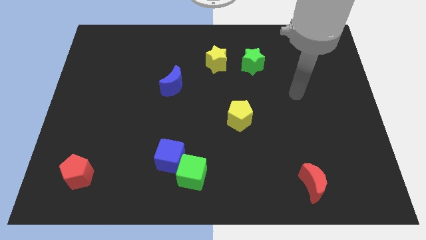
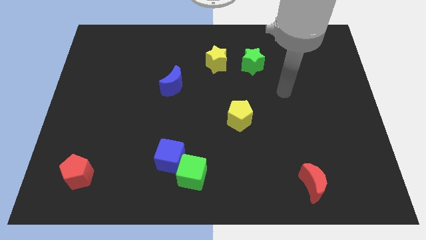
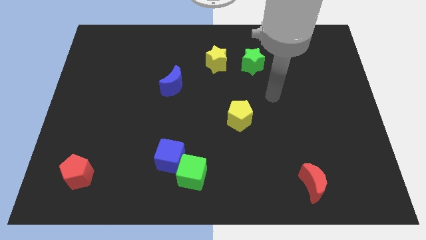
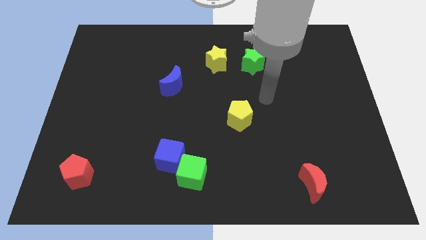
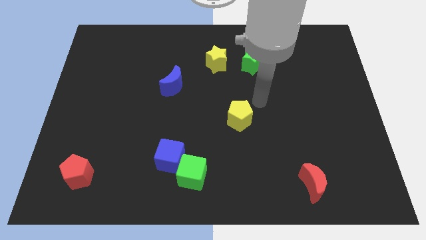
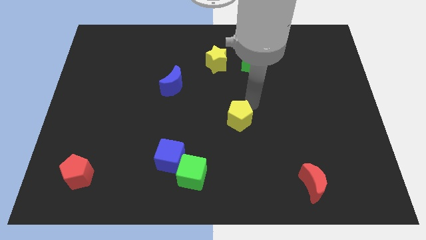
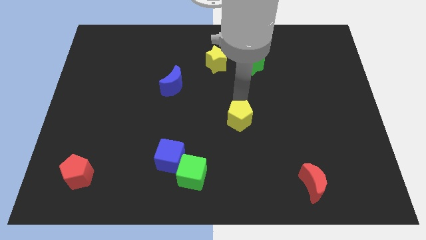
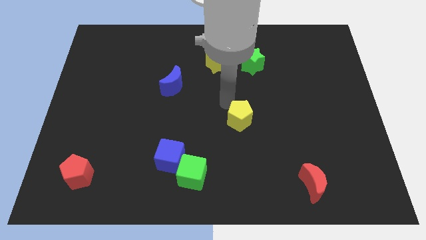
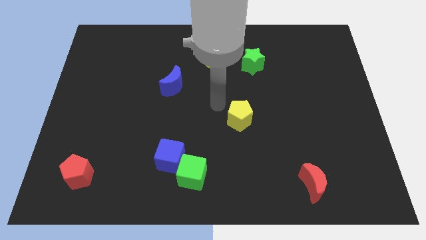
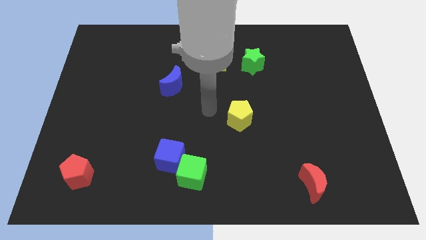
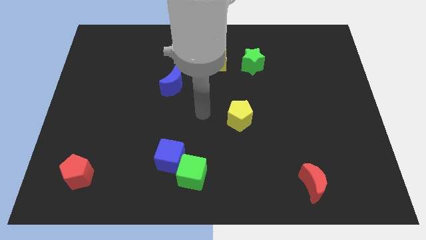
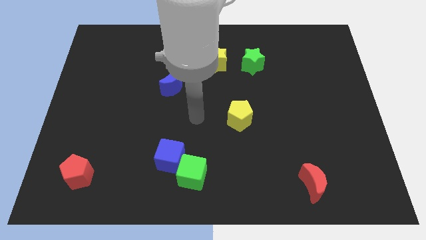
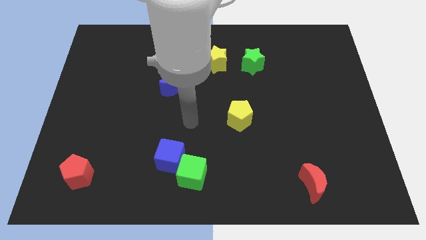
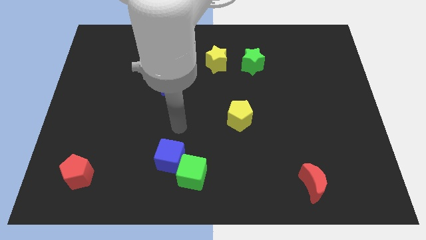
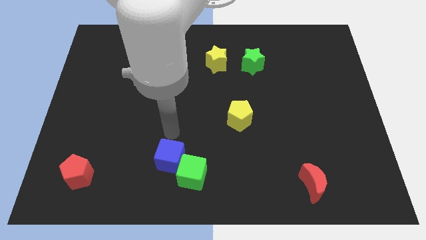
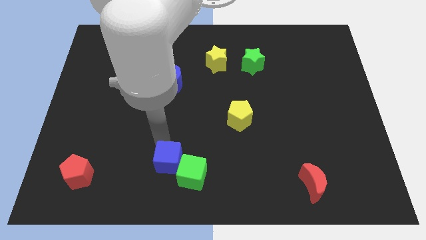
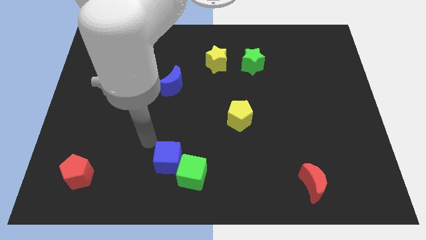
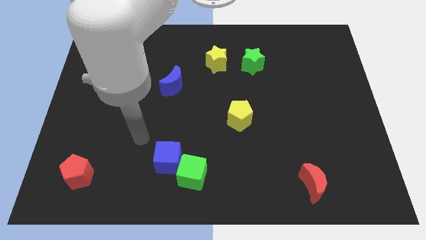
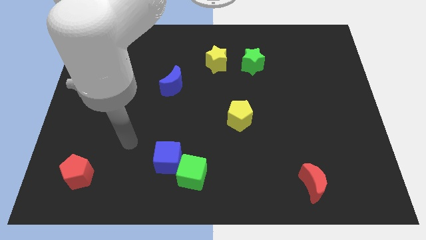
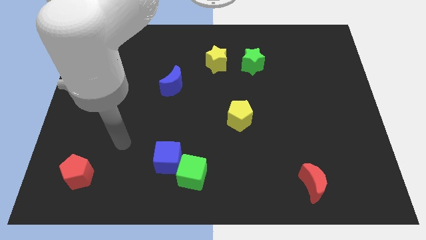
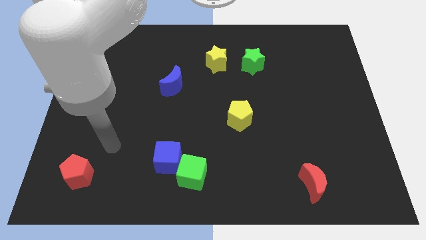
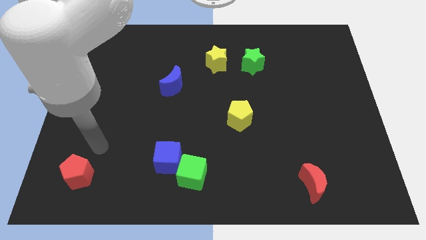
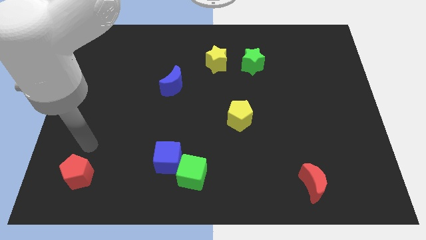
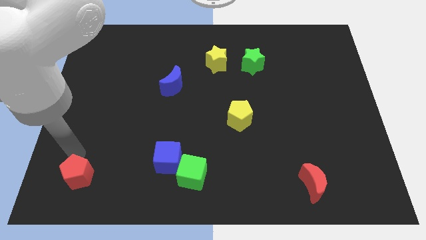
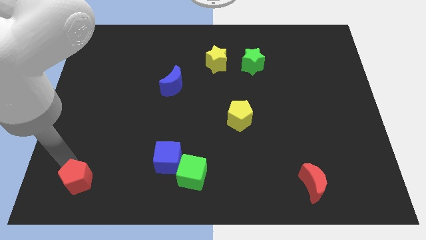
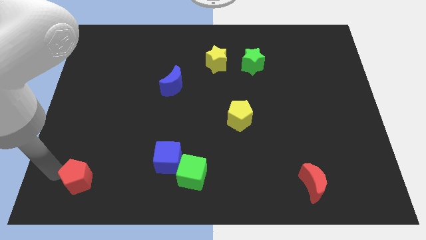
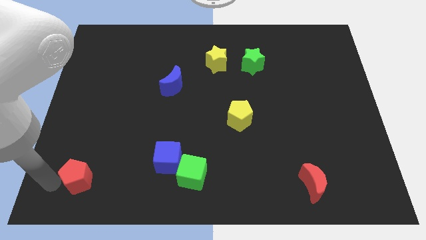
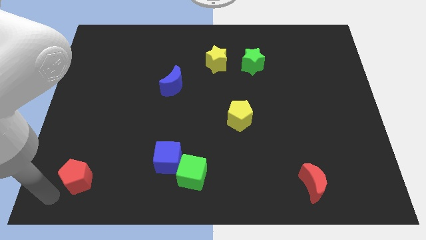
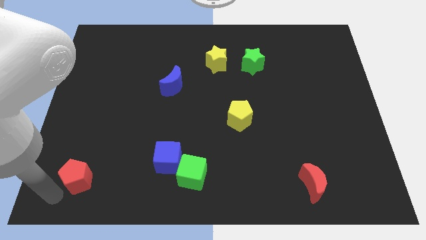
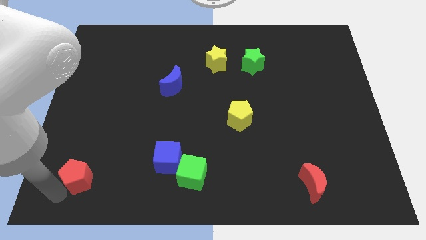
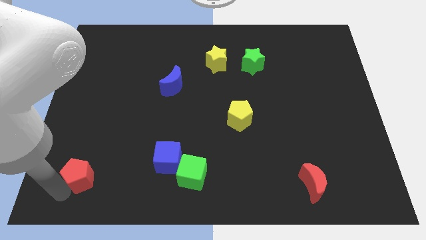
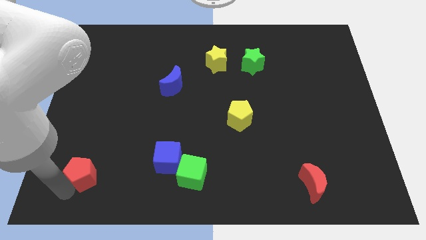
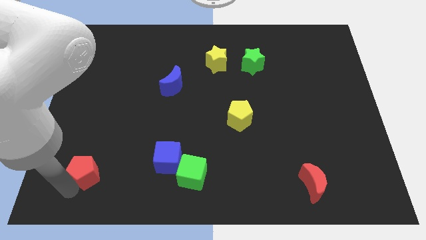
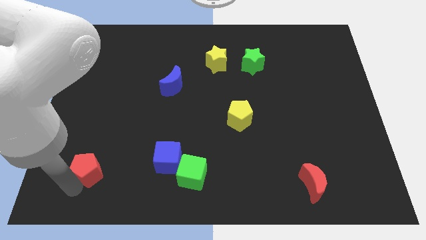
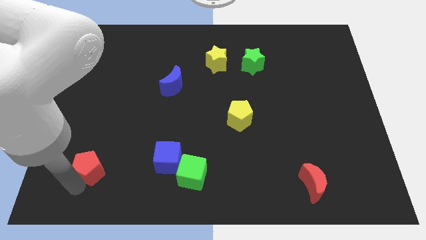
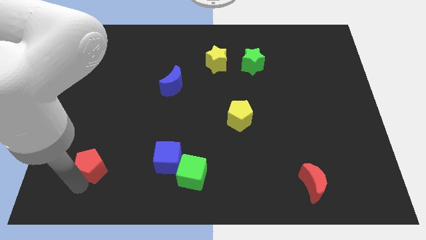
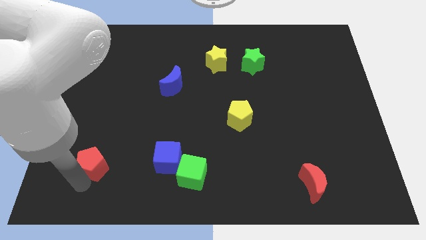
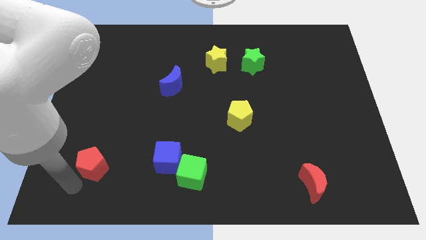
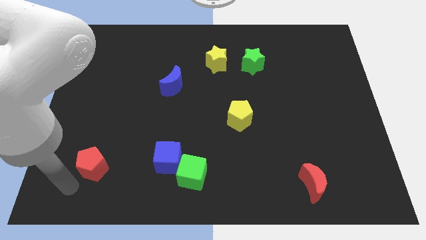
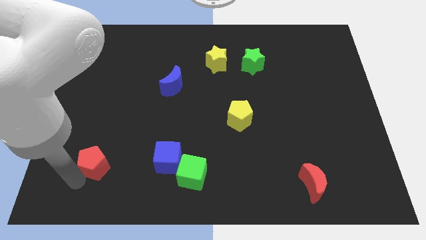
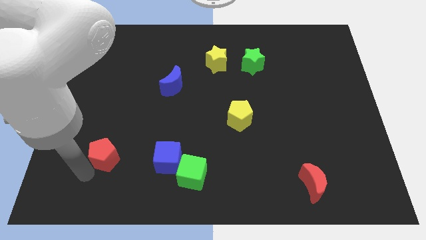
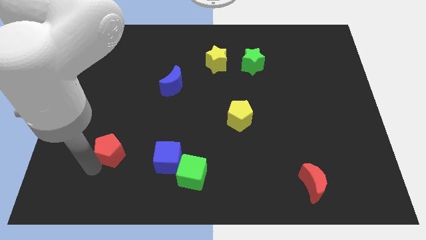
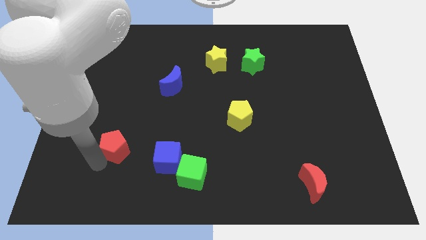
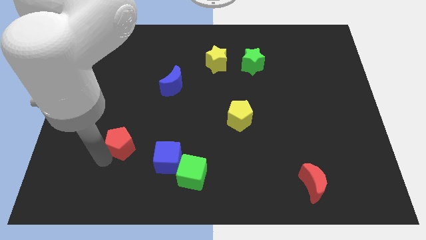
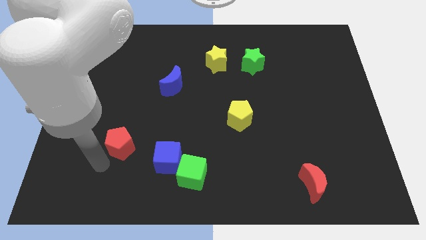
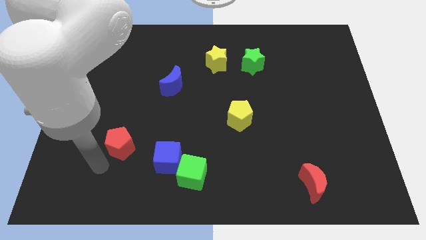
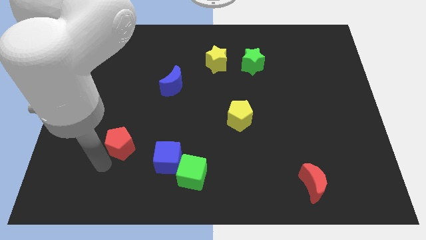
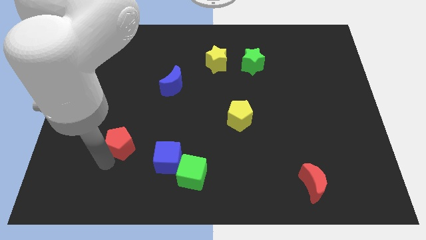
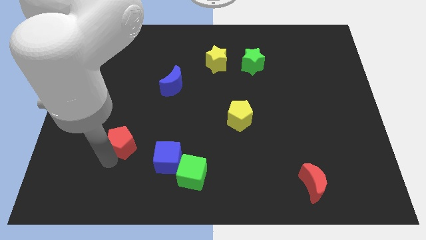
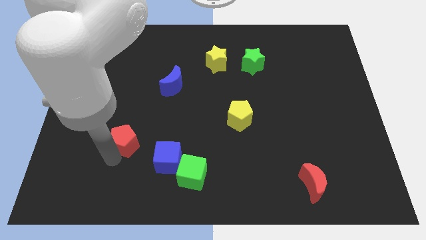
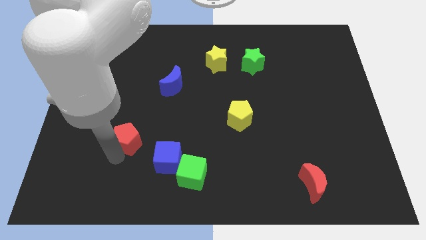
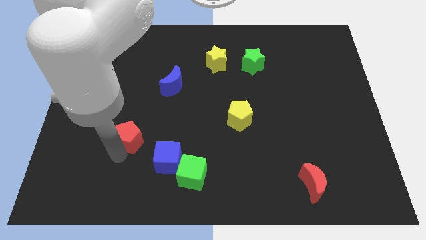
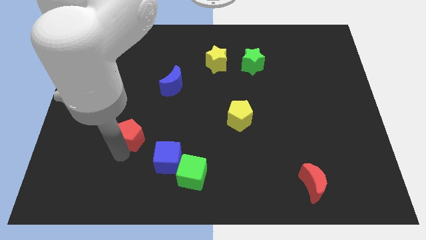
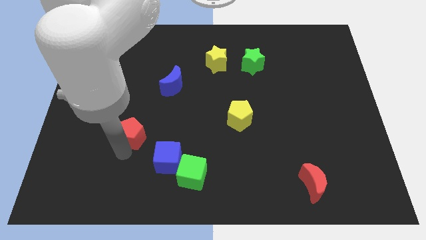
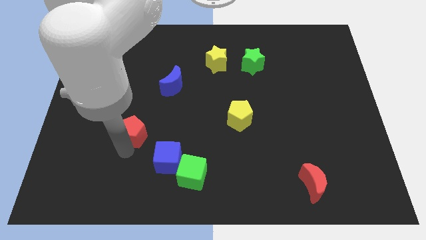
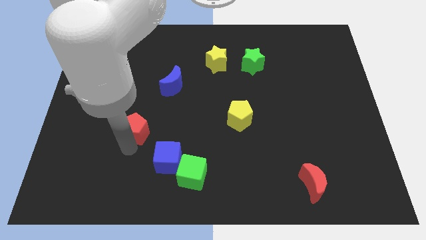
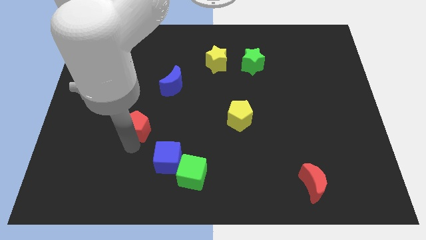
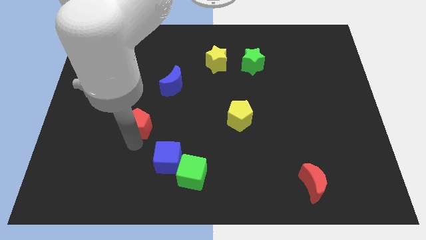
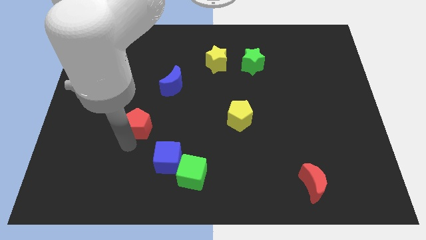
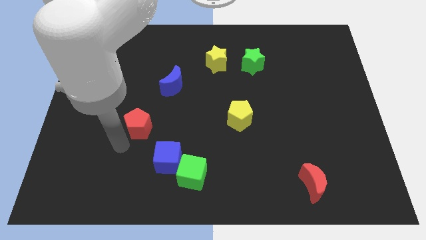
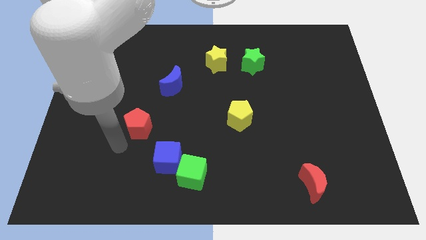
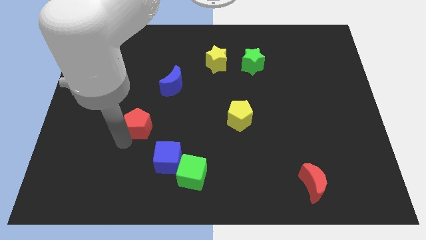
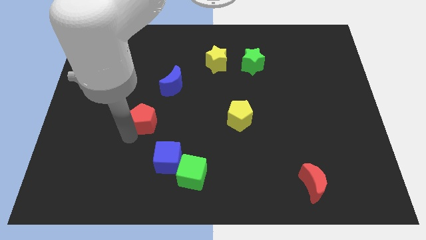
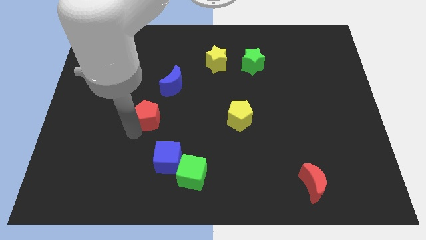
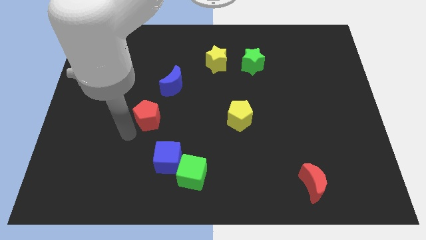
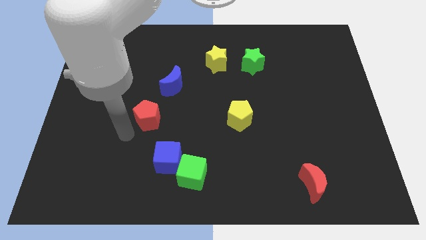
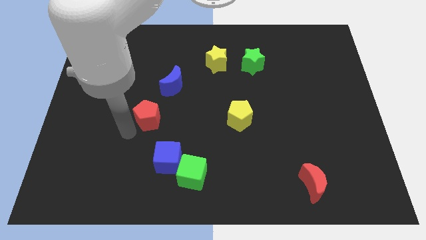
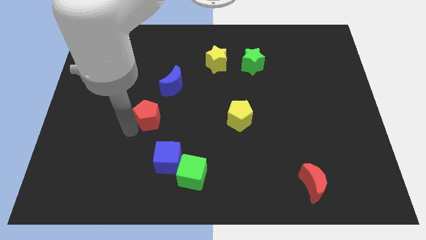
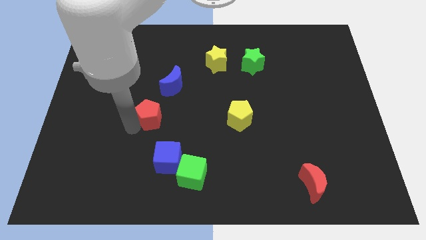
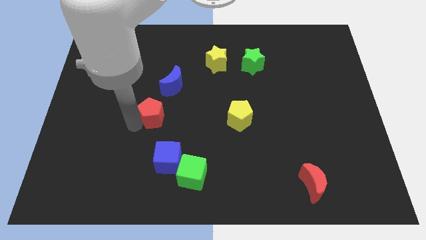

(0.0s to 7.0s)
push the red pentagon up and then right

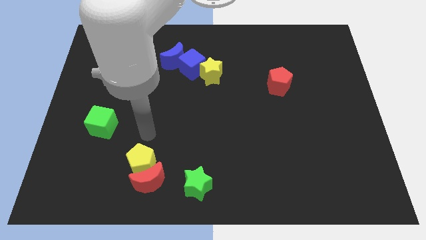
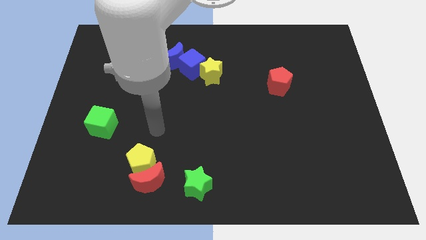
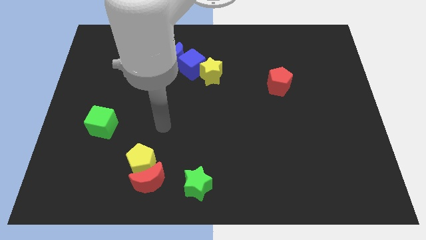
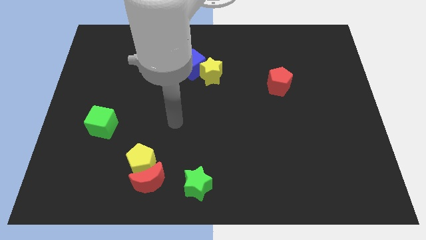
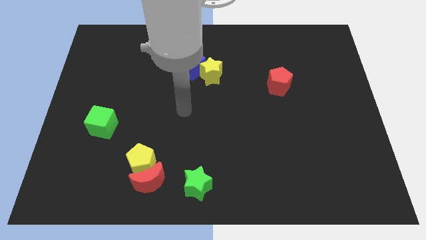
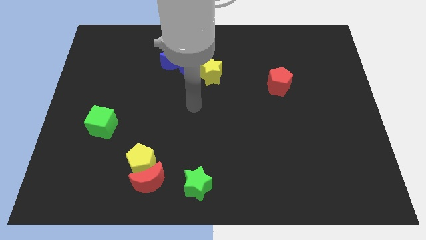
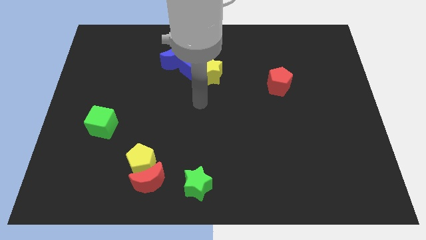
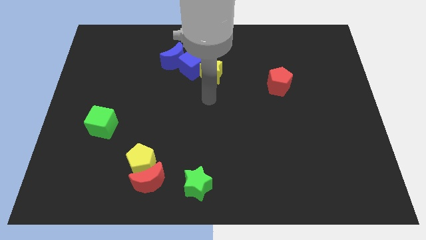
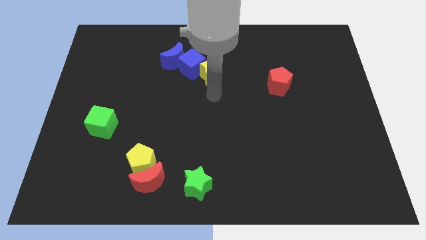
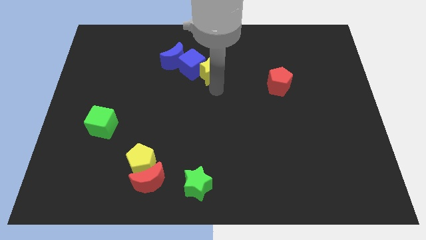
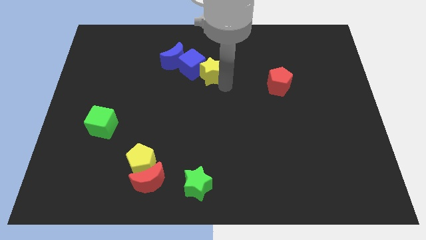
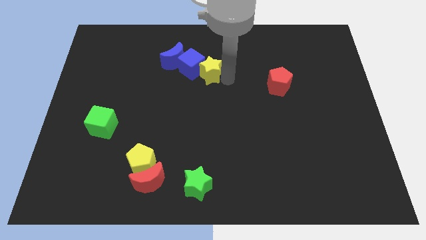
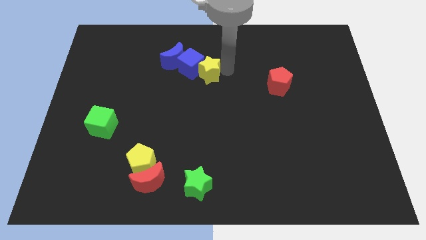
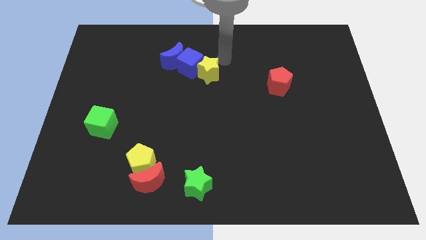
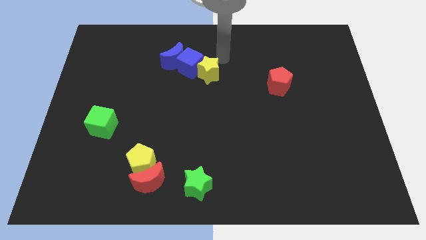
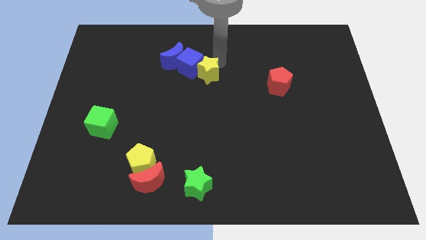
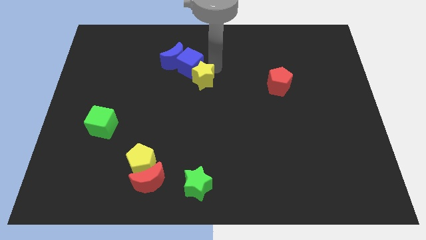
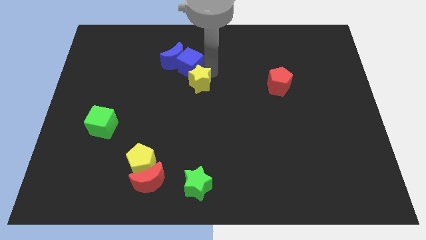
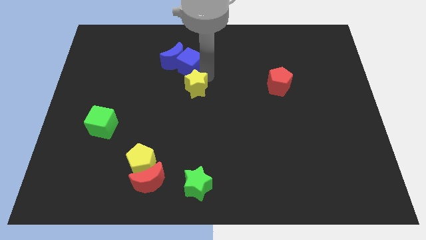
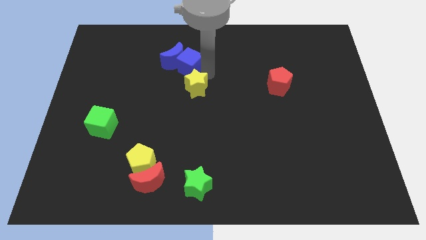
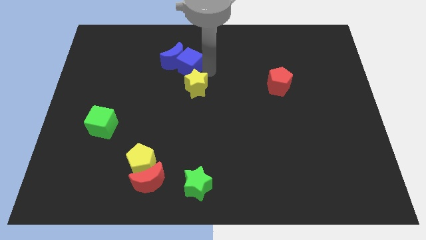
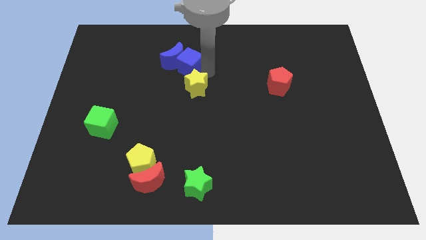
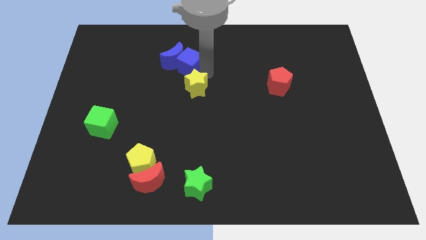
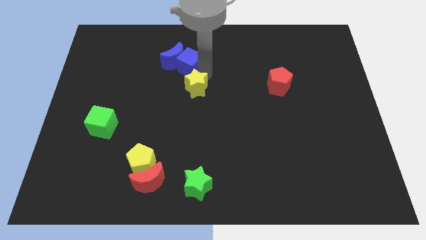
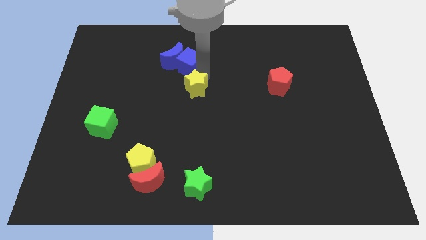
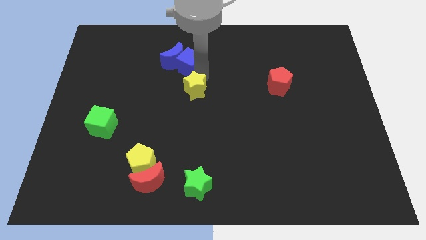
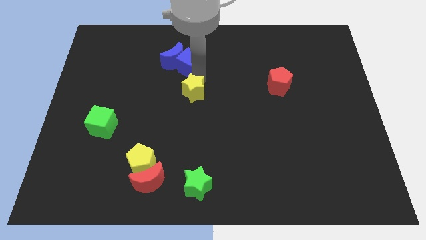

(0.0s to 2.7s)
slide the yellow star a bit diagonally down and left
